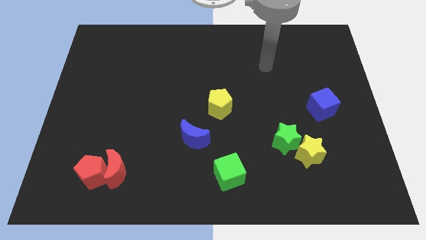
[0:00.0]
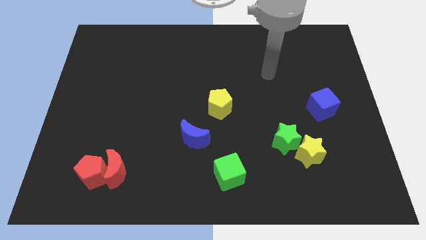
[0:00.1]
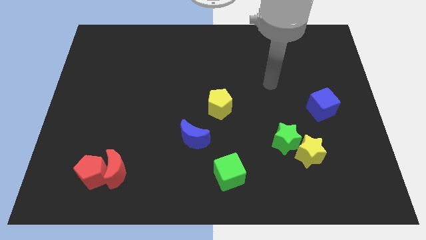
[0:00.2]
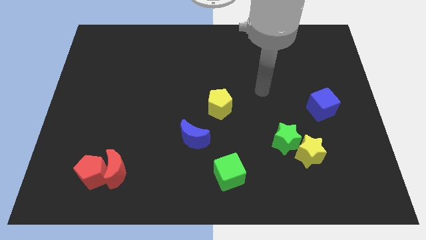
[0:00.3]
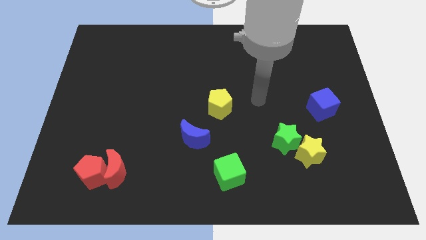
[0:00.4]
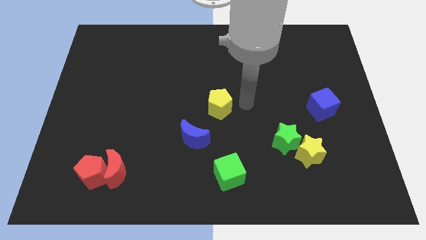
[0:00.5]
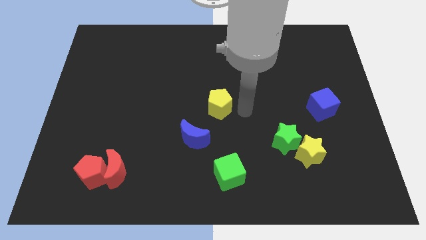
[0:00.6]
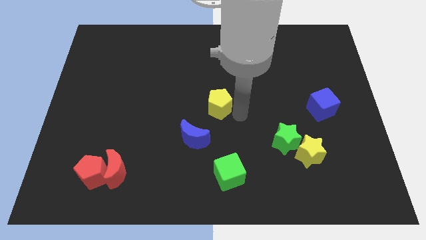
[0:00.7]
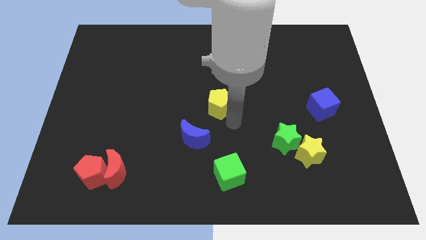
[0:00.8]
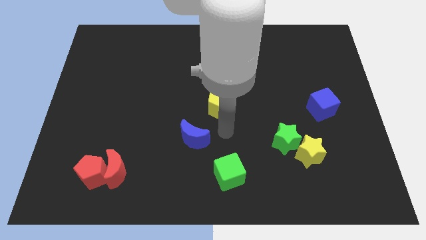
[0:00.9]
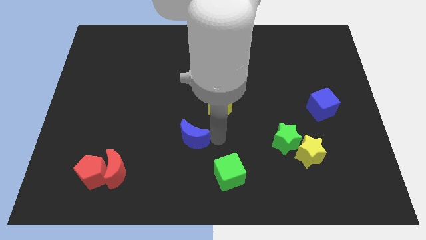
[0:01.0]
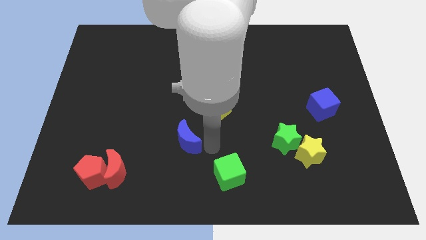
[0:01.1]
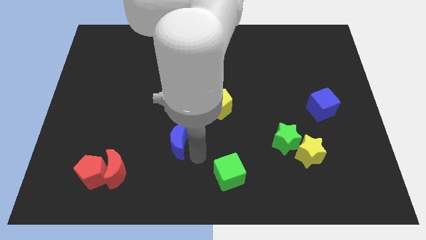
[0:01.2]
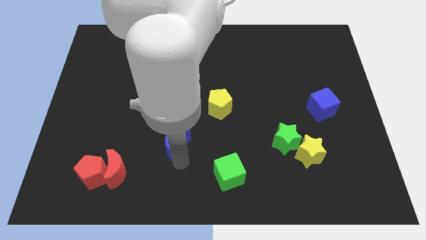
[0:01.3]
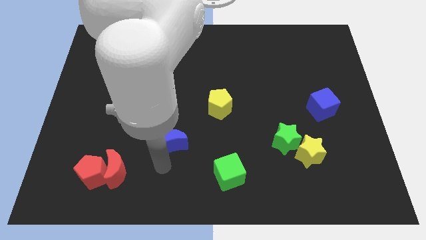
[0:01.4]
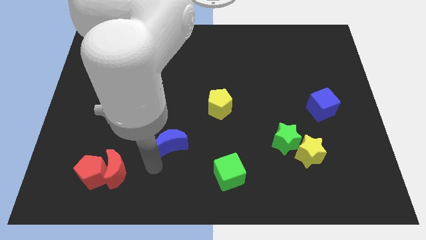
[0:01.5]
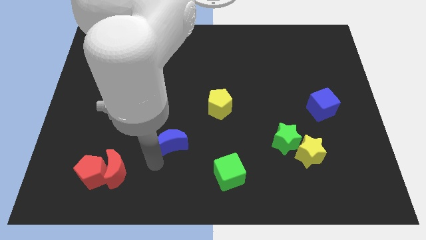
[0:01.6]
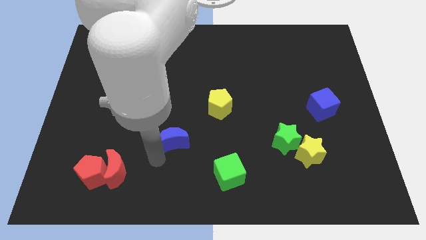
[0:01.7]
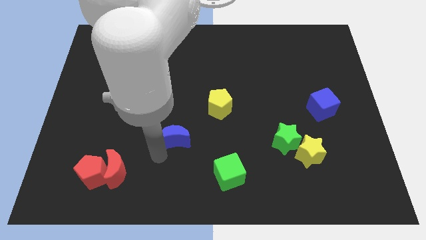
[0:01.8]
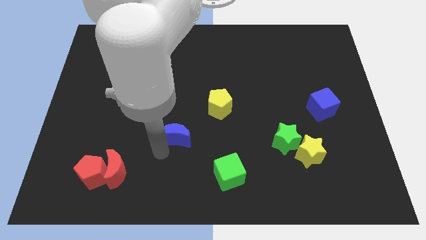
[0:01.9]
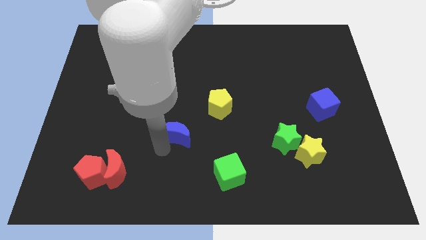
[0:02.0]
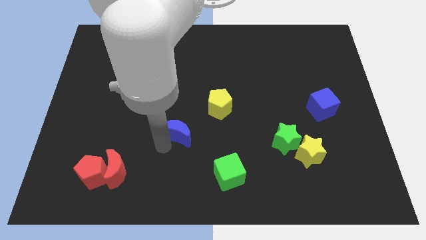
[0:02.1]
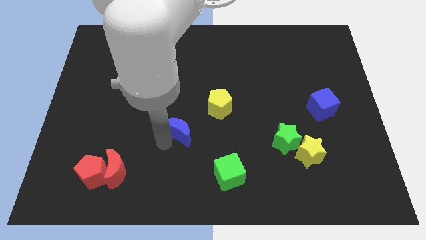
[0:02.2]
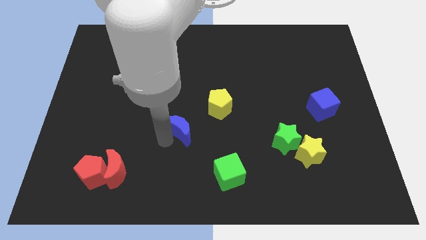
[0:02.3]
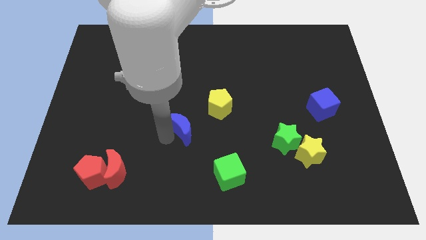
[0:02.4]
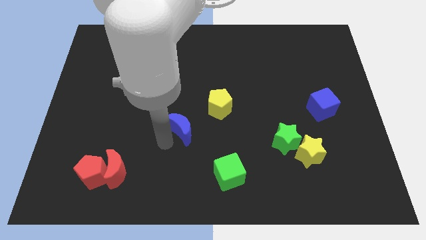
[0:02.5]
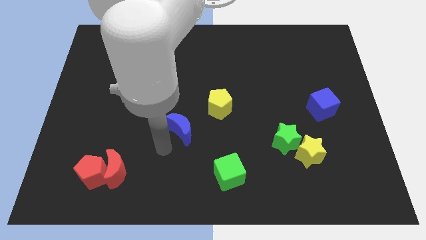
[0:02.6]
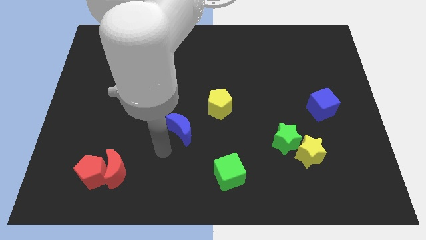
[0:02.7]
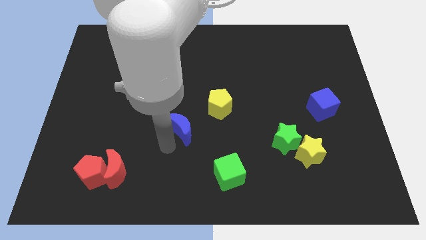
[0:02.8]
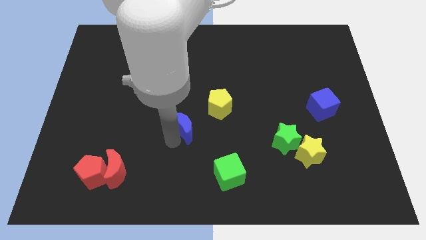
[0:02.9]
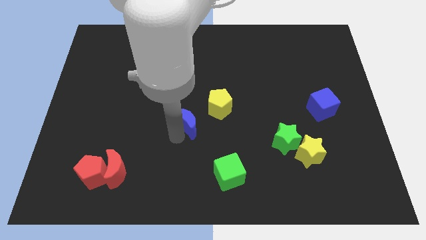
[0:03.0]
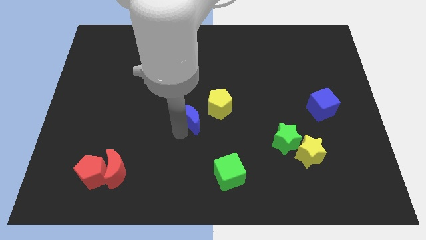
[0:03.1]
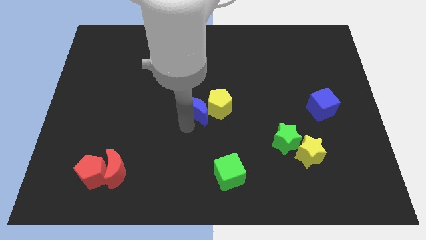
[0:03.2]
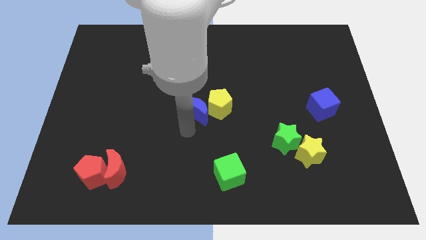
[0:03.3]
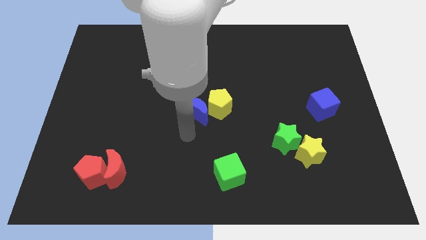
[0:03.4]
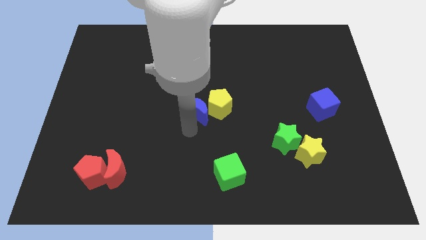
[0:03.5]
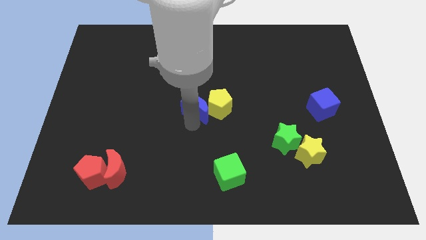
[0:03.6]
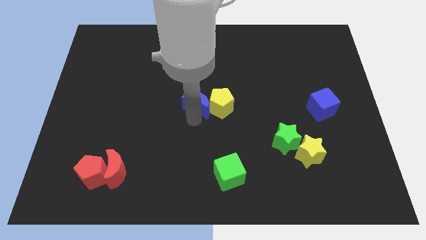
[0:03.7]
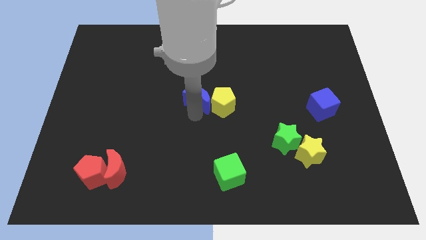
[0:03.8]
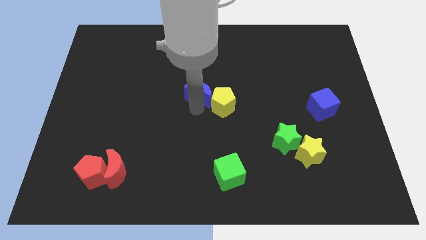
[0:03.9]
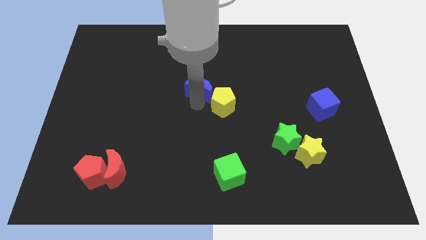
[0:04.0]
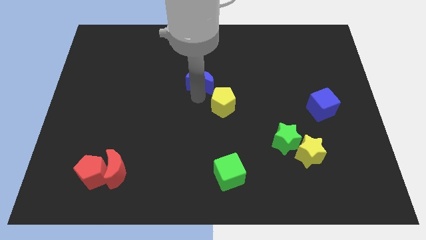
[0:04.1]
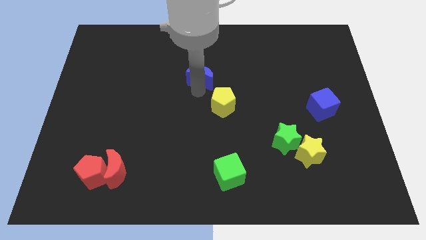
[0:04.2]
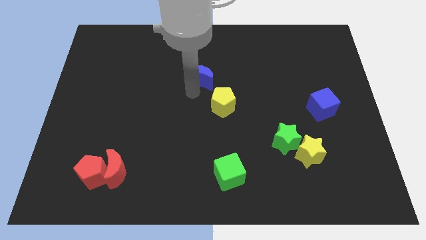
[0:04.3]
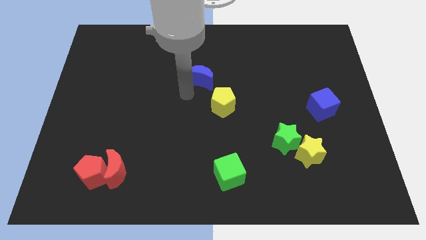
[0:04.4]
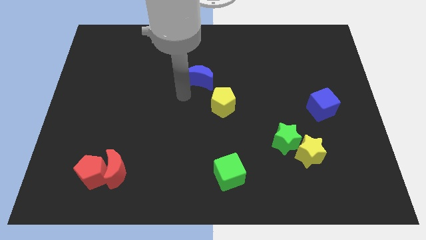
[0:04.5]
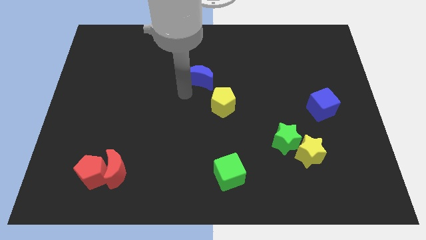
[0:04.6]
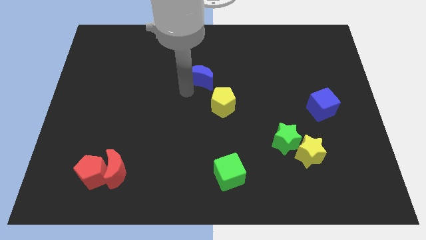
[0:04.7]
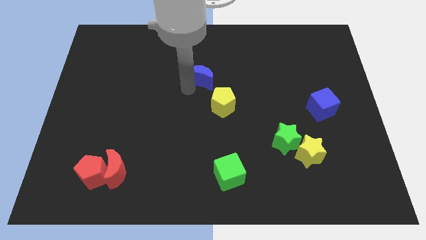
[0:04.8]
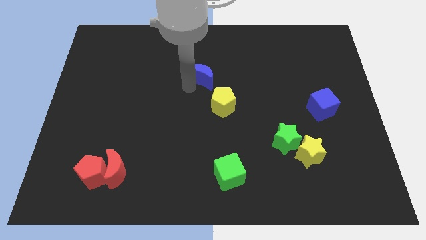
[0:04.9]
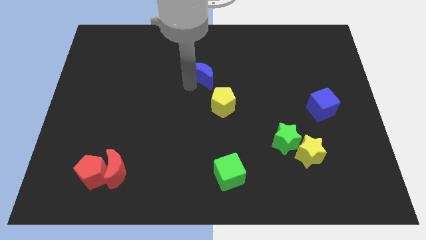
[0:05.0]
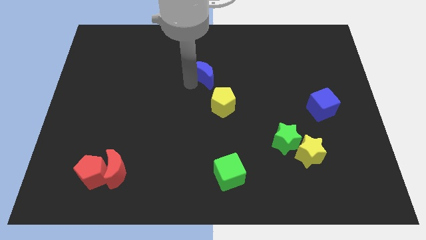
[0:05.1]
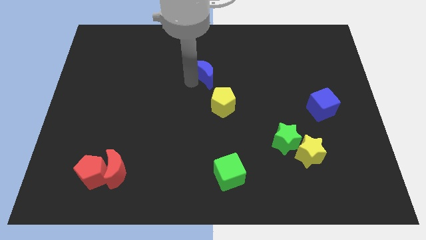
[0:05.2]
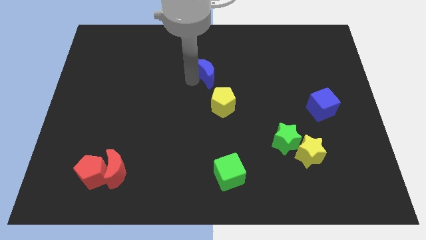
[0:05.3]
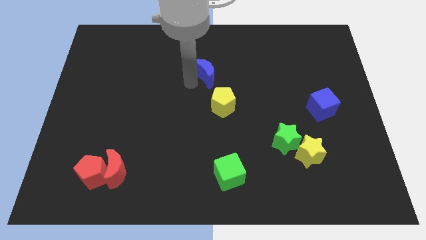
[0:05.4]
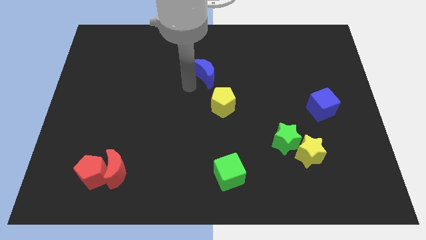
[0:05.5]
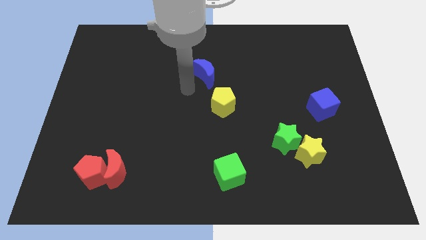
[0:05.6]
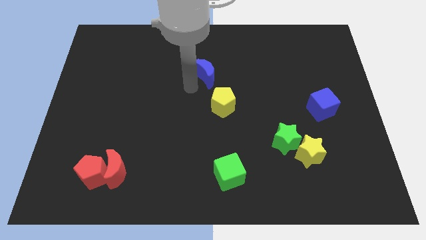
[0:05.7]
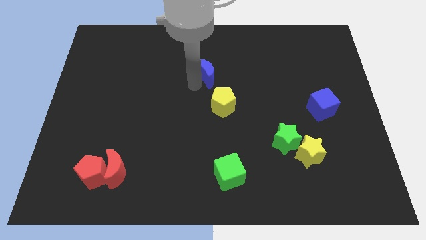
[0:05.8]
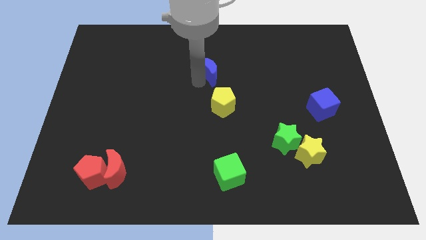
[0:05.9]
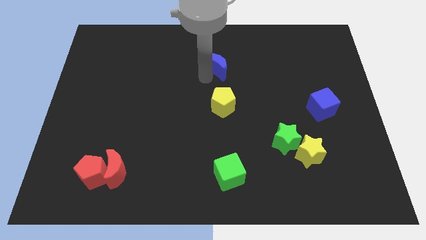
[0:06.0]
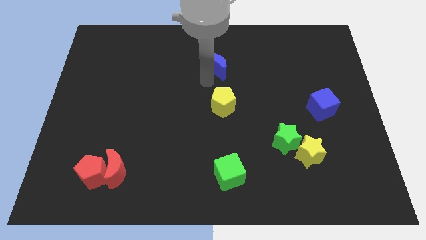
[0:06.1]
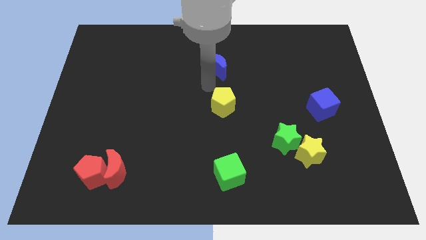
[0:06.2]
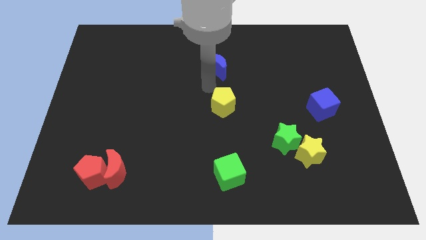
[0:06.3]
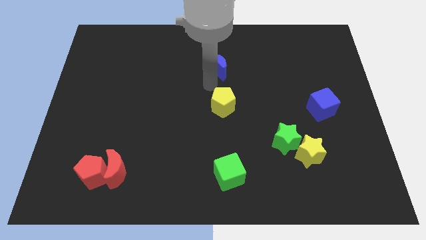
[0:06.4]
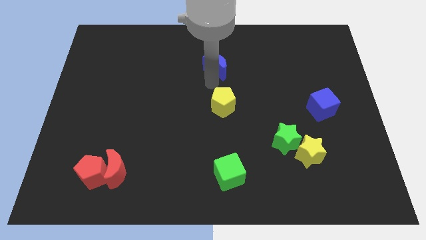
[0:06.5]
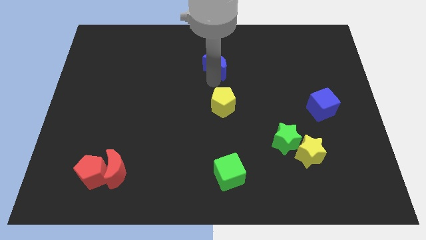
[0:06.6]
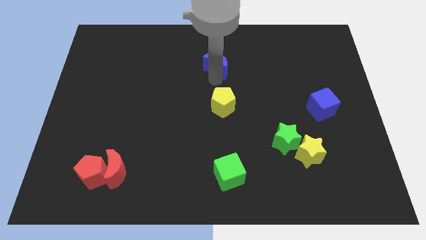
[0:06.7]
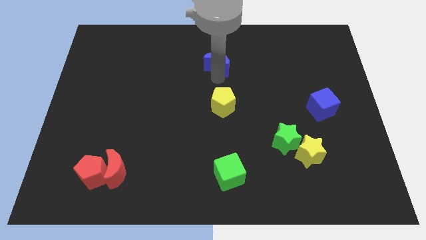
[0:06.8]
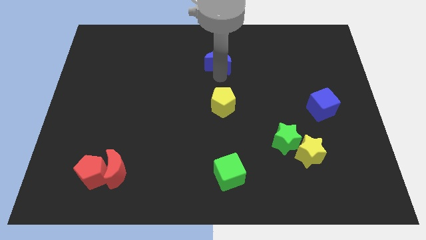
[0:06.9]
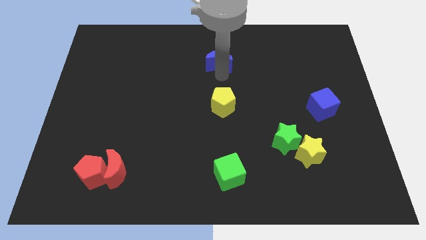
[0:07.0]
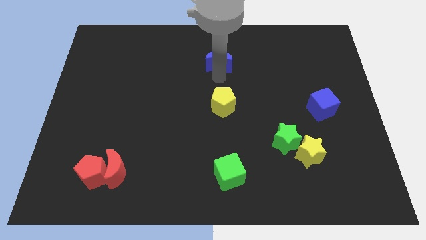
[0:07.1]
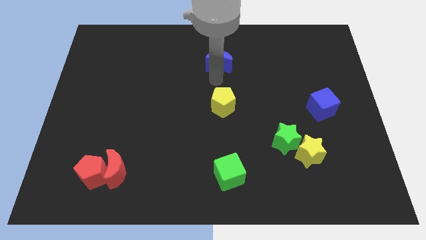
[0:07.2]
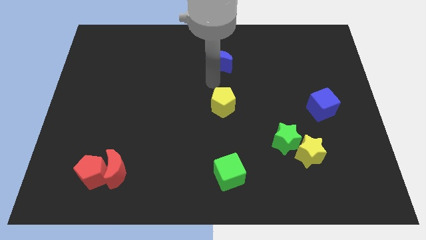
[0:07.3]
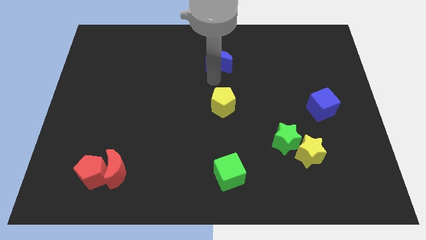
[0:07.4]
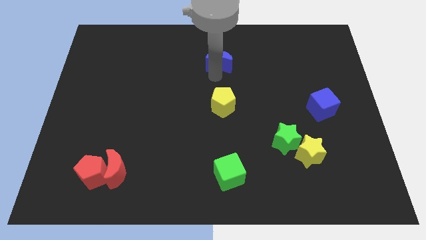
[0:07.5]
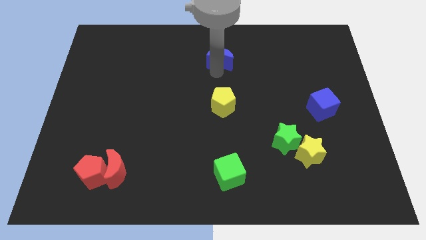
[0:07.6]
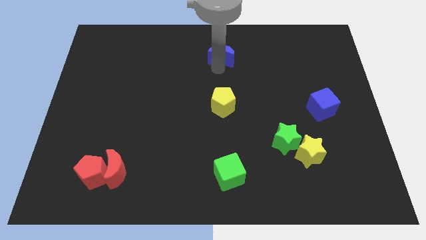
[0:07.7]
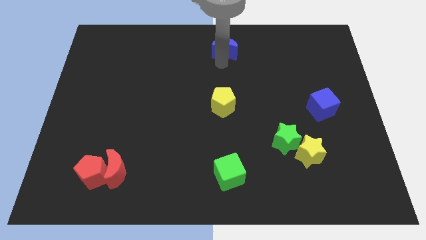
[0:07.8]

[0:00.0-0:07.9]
move the blue moon to the top
